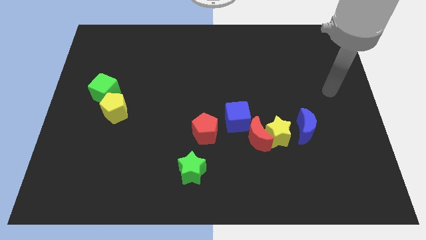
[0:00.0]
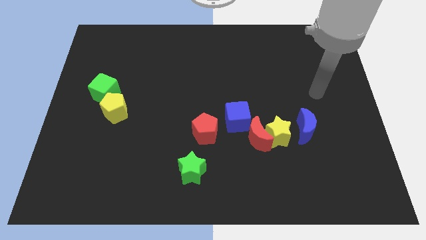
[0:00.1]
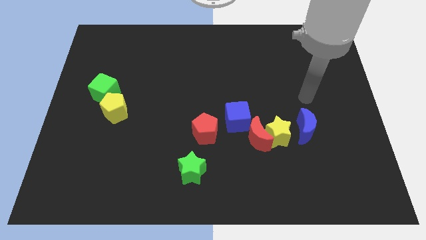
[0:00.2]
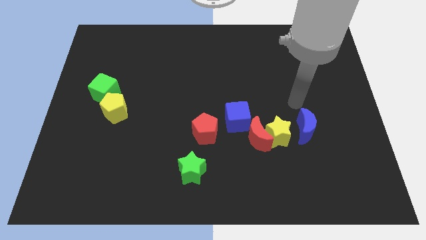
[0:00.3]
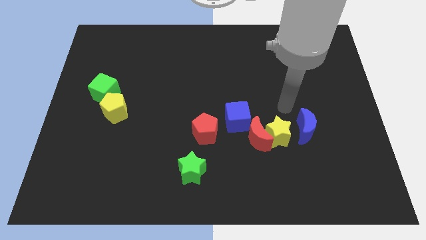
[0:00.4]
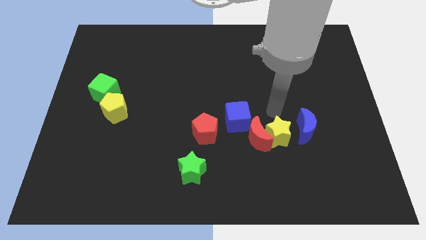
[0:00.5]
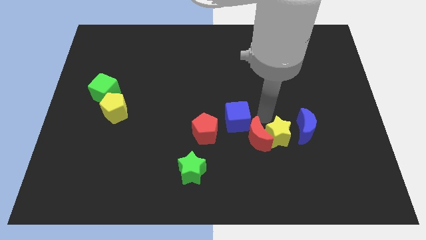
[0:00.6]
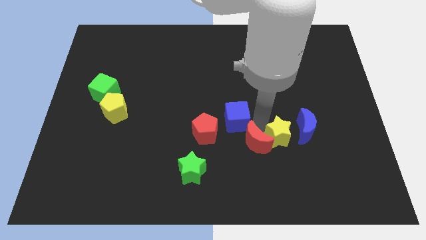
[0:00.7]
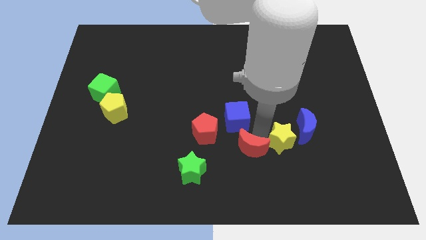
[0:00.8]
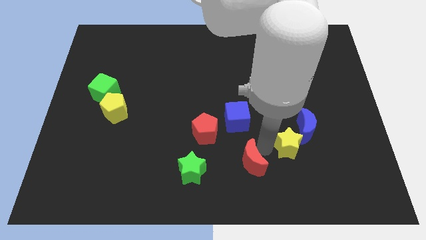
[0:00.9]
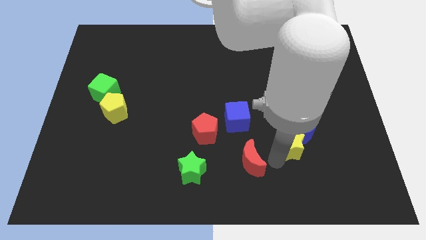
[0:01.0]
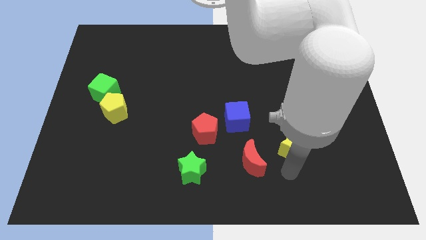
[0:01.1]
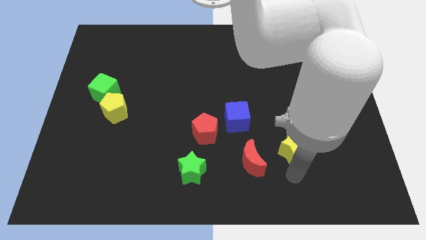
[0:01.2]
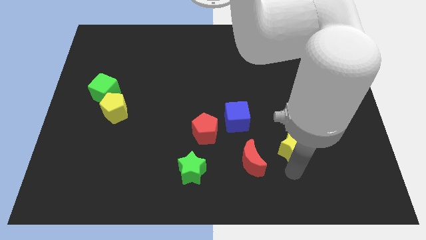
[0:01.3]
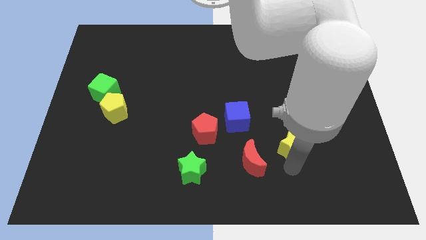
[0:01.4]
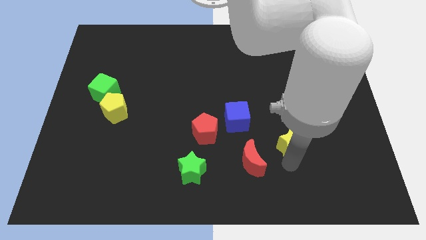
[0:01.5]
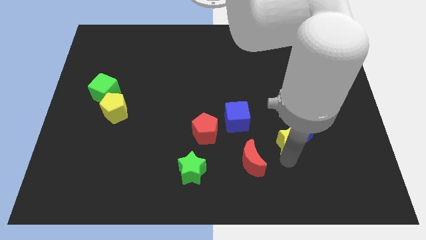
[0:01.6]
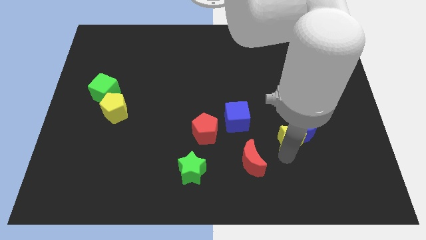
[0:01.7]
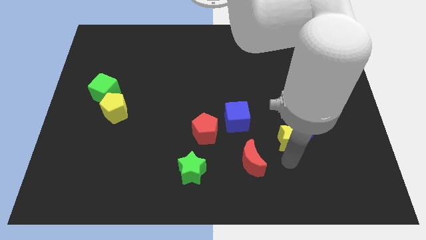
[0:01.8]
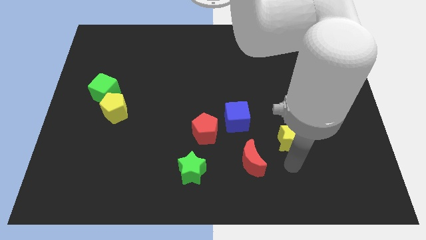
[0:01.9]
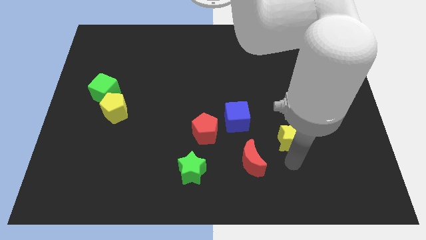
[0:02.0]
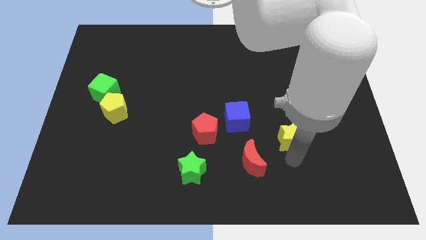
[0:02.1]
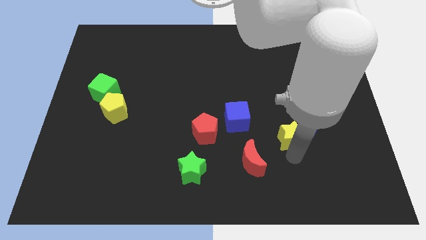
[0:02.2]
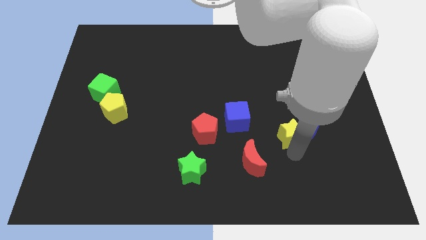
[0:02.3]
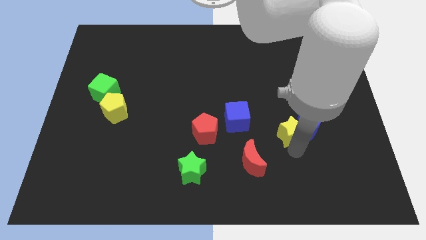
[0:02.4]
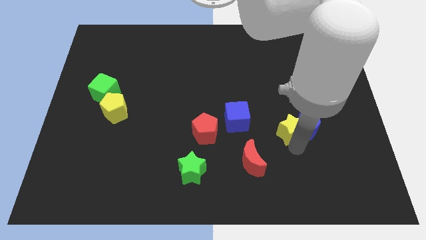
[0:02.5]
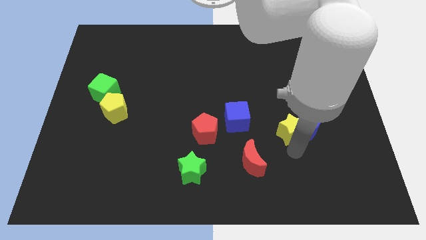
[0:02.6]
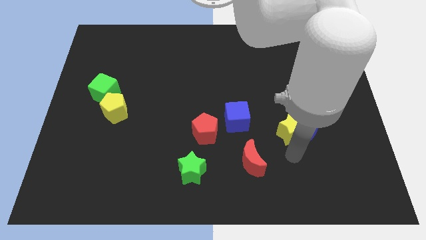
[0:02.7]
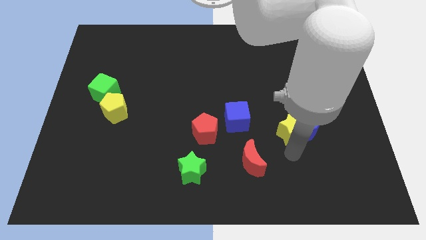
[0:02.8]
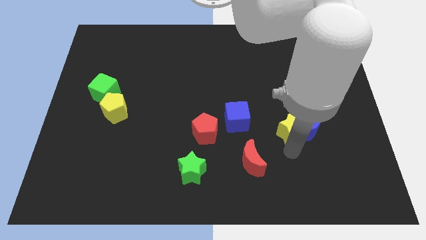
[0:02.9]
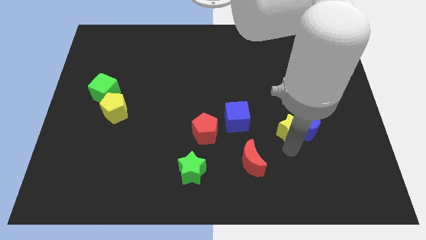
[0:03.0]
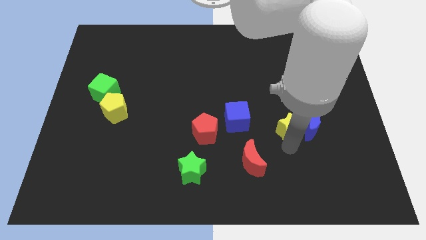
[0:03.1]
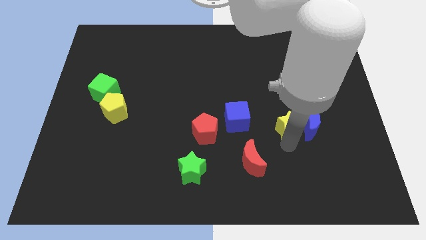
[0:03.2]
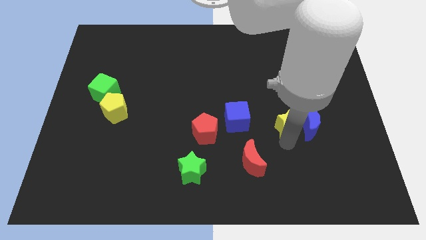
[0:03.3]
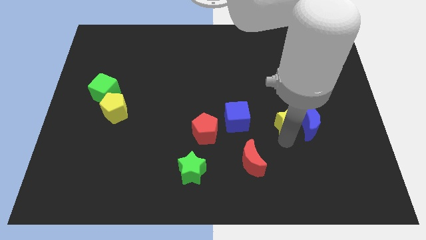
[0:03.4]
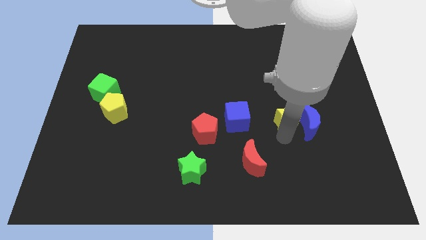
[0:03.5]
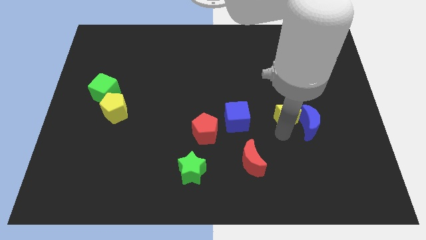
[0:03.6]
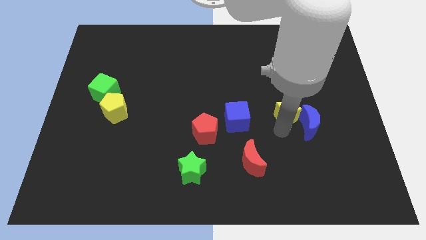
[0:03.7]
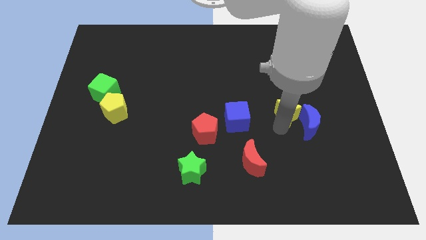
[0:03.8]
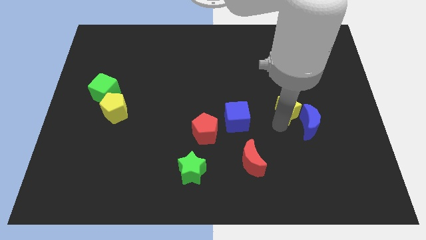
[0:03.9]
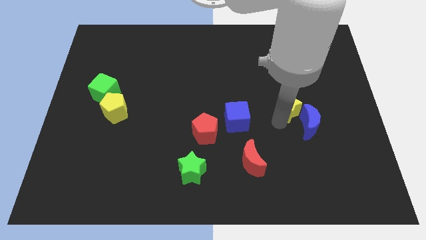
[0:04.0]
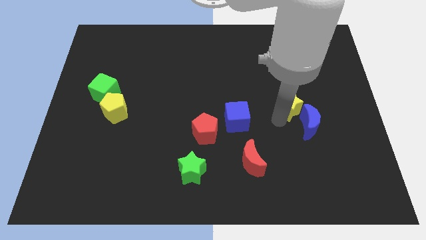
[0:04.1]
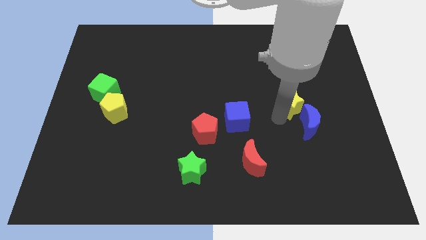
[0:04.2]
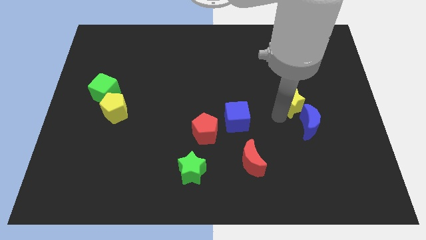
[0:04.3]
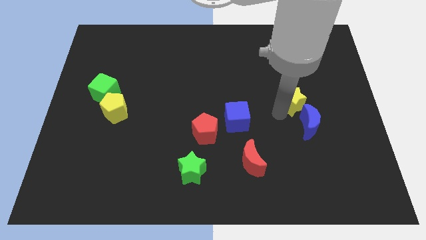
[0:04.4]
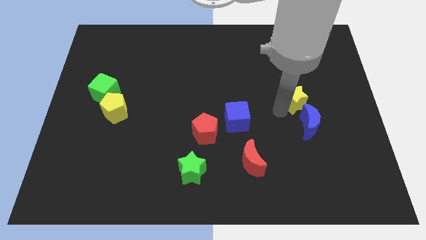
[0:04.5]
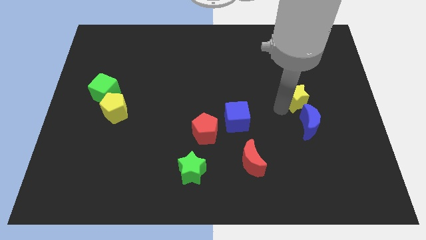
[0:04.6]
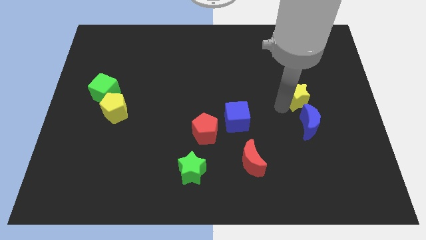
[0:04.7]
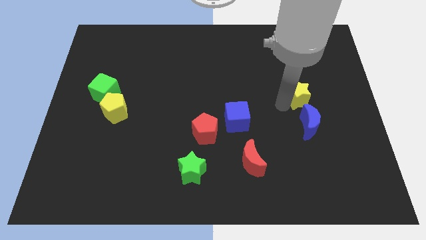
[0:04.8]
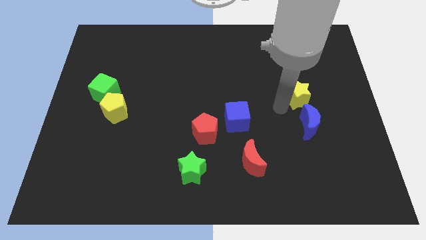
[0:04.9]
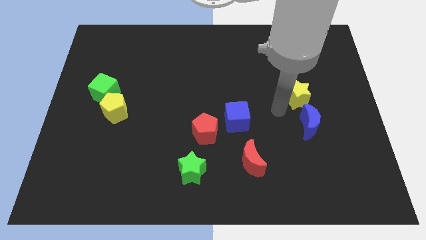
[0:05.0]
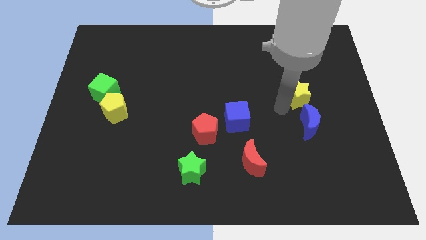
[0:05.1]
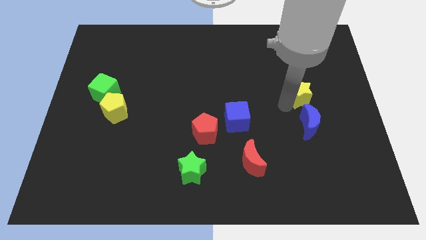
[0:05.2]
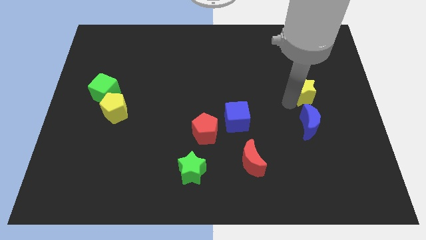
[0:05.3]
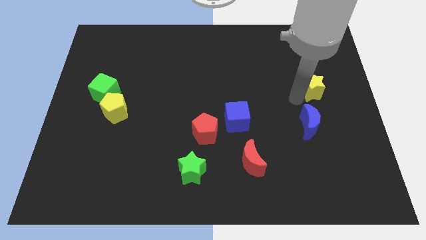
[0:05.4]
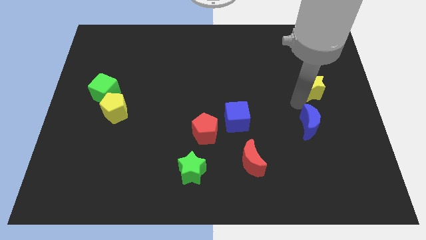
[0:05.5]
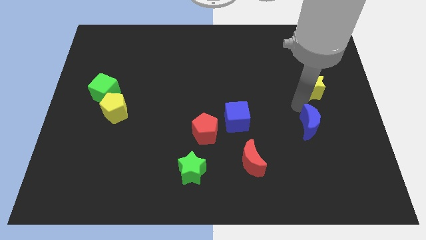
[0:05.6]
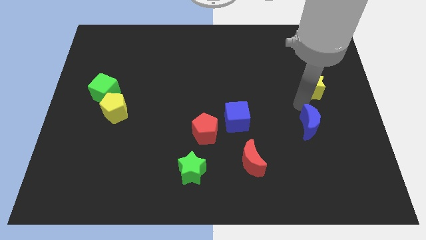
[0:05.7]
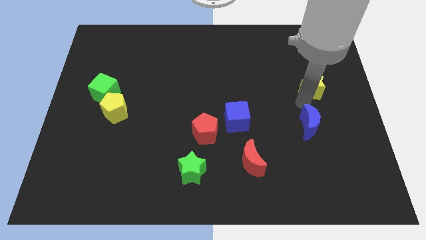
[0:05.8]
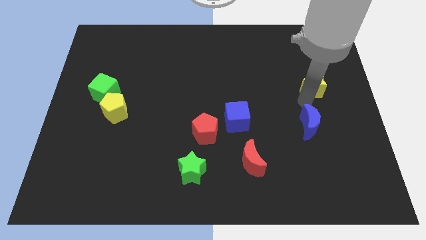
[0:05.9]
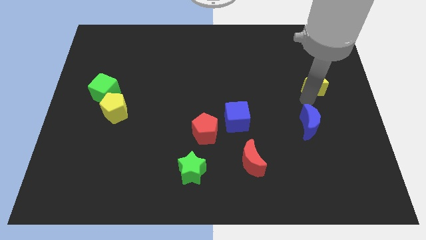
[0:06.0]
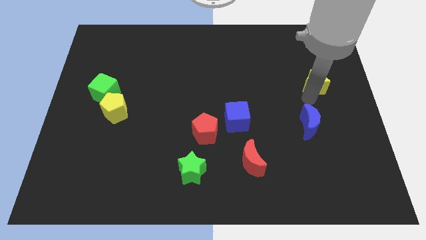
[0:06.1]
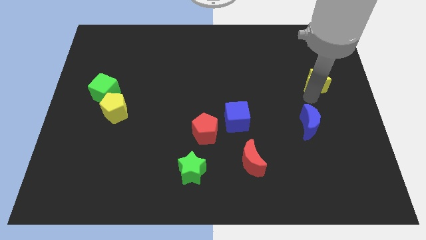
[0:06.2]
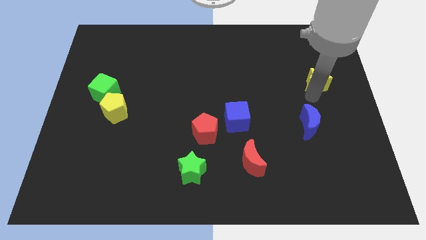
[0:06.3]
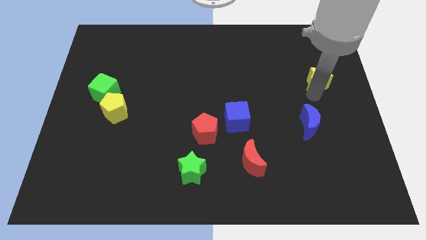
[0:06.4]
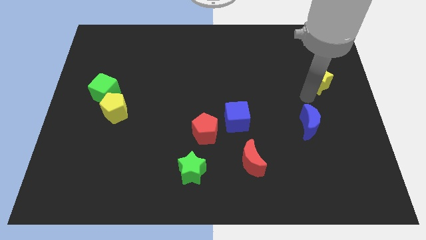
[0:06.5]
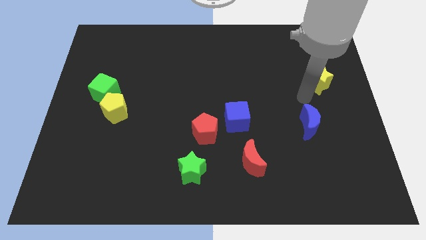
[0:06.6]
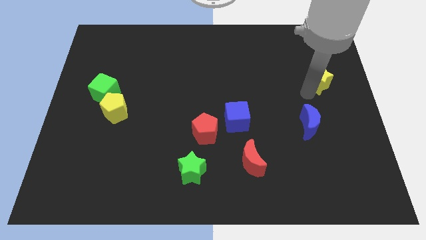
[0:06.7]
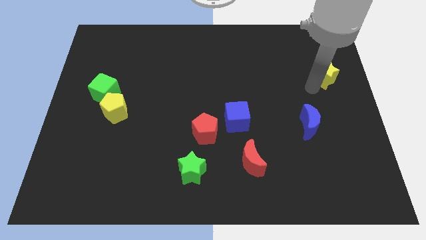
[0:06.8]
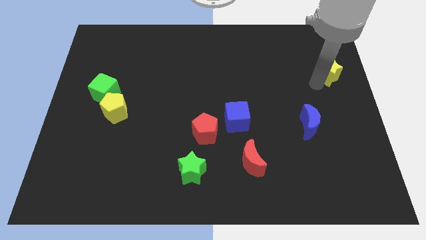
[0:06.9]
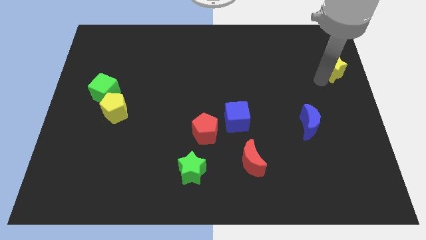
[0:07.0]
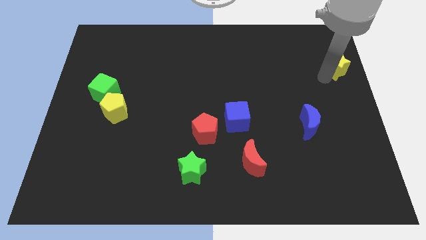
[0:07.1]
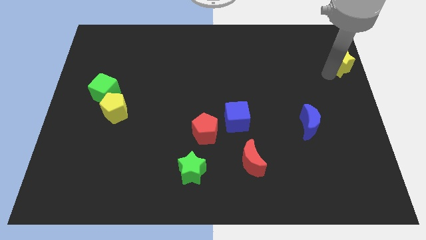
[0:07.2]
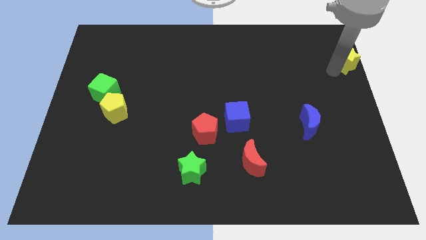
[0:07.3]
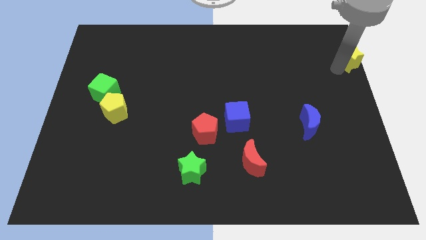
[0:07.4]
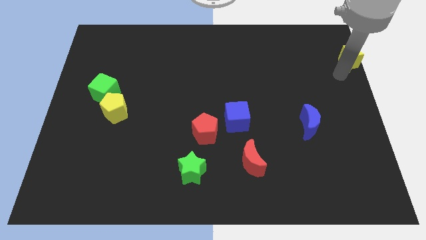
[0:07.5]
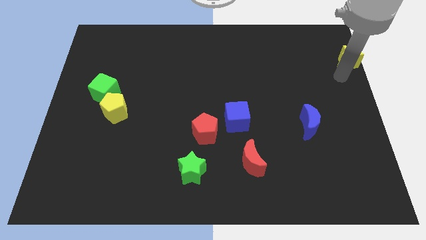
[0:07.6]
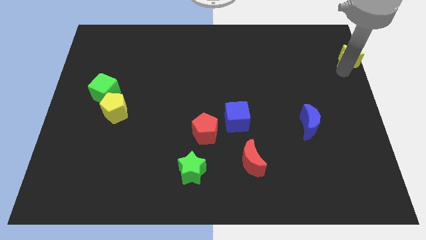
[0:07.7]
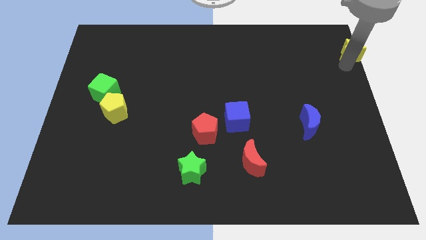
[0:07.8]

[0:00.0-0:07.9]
put the yellow star to the top right of the board
